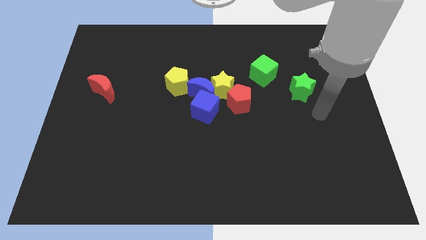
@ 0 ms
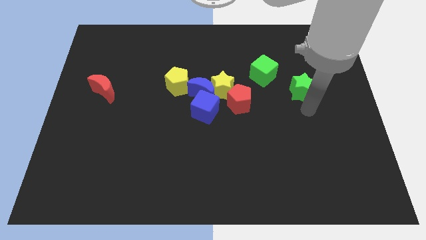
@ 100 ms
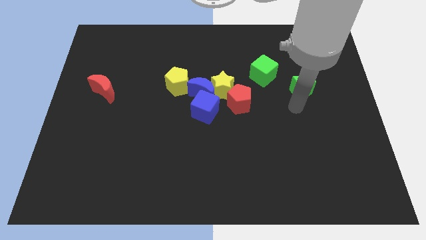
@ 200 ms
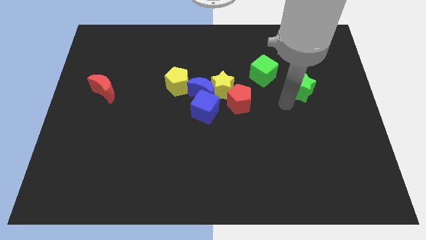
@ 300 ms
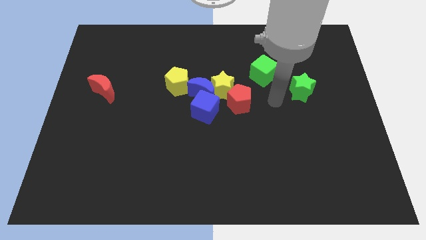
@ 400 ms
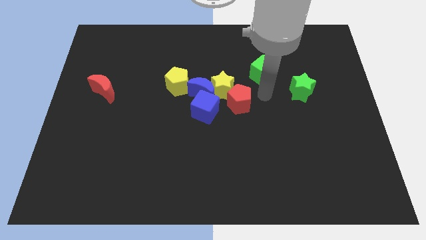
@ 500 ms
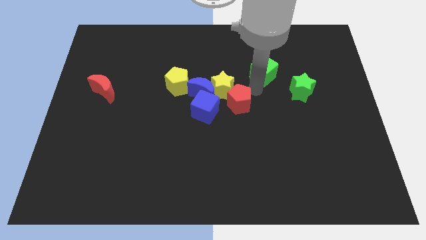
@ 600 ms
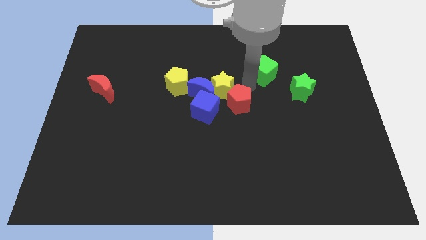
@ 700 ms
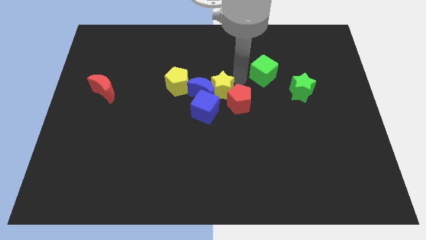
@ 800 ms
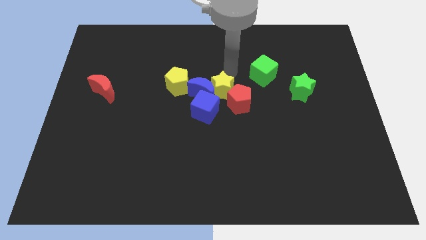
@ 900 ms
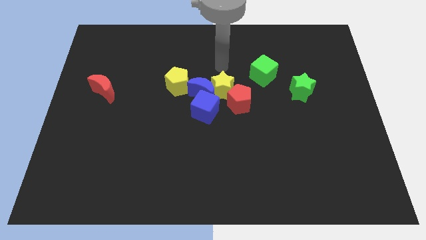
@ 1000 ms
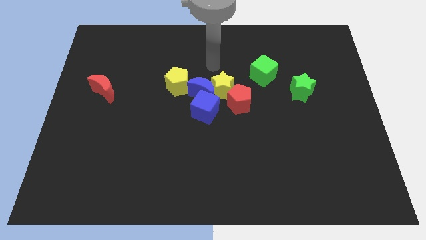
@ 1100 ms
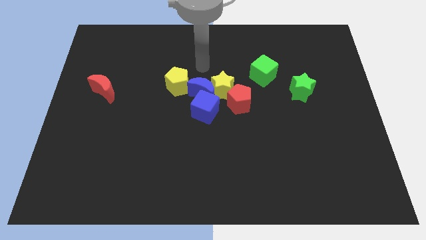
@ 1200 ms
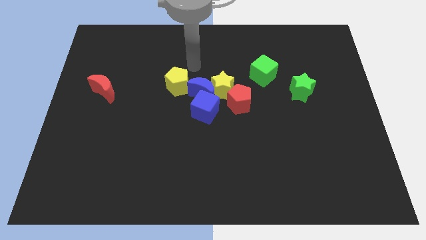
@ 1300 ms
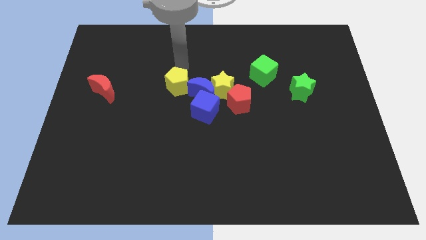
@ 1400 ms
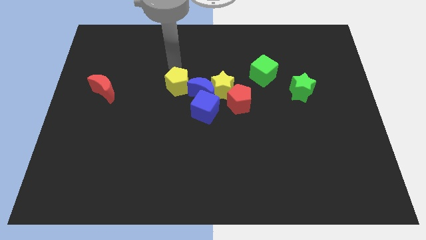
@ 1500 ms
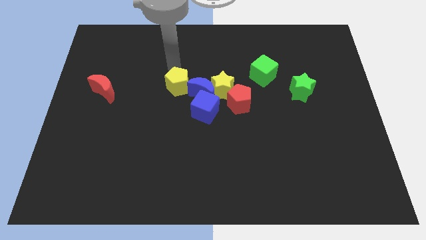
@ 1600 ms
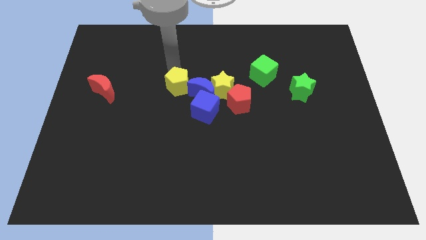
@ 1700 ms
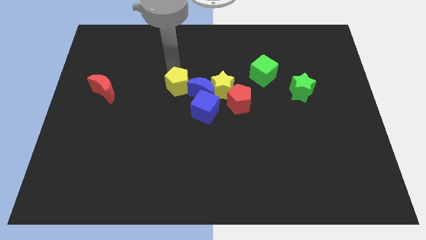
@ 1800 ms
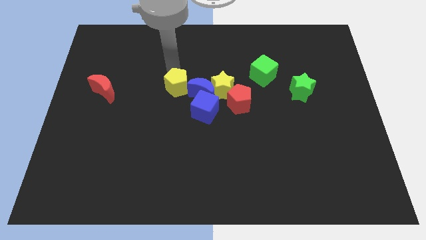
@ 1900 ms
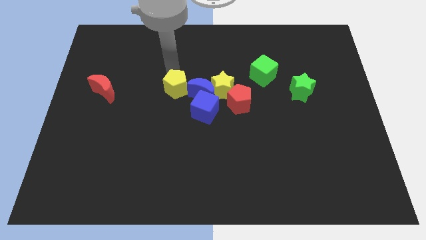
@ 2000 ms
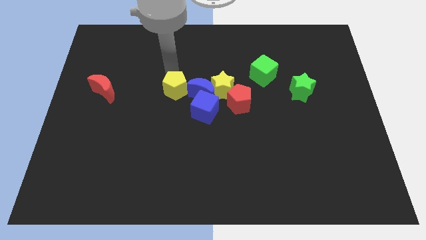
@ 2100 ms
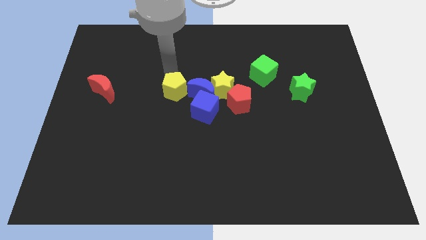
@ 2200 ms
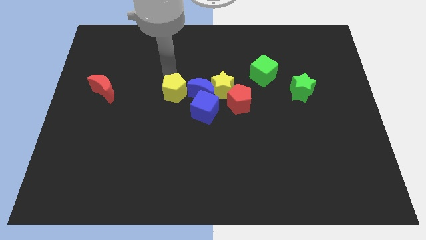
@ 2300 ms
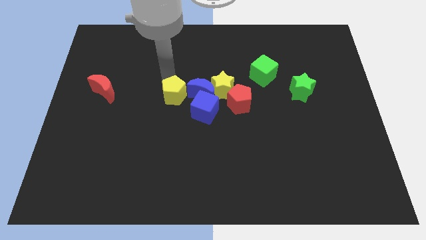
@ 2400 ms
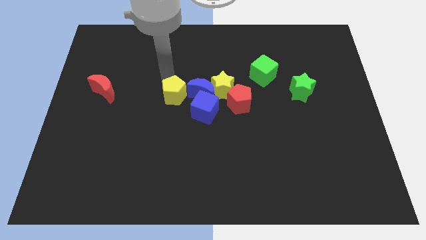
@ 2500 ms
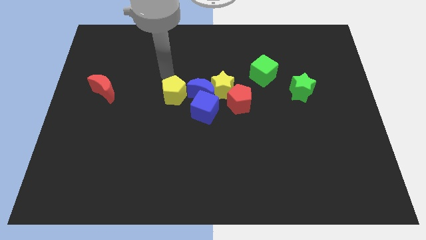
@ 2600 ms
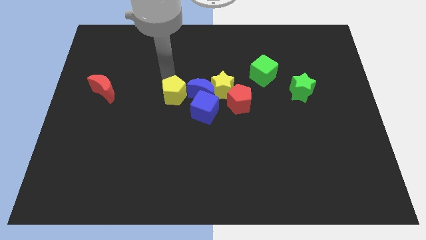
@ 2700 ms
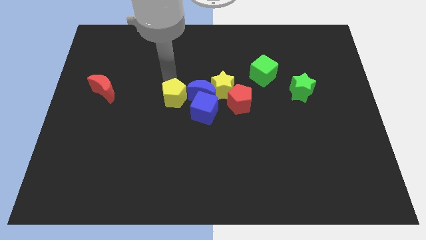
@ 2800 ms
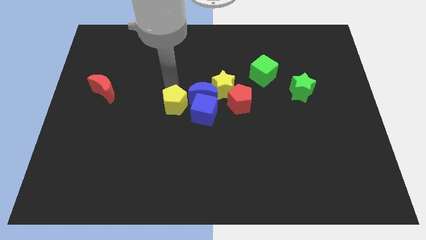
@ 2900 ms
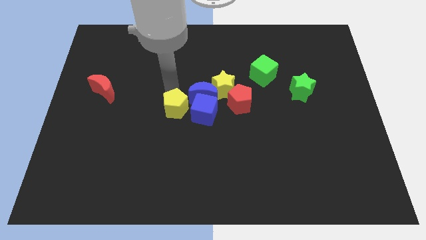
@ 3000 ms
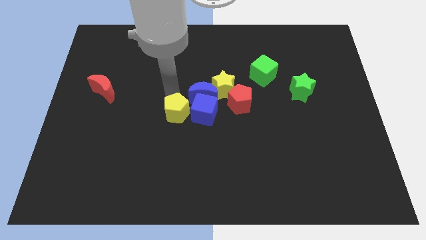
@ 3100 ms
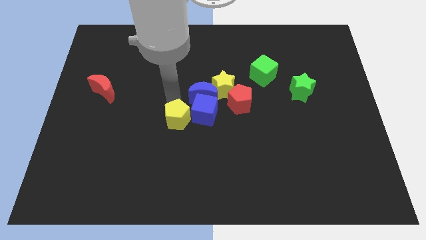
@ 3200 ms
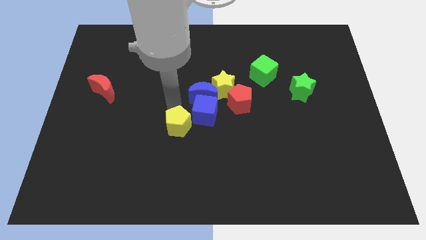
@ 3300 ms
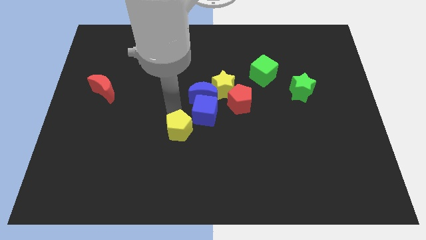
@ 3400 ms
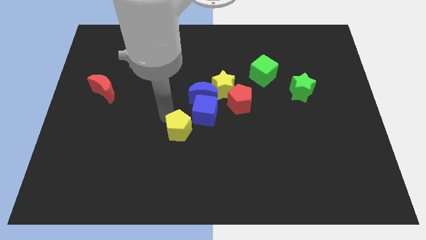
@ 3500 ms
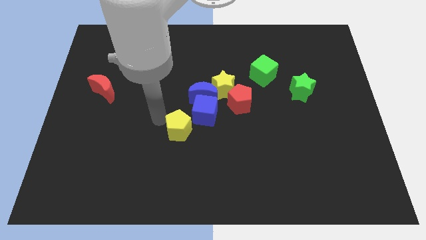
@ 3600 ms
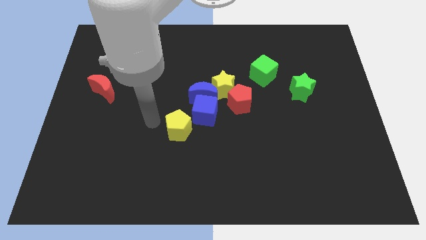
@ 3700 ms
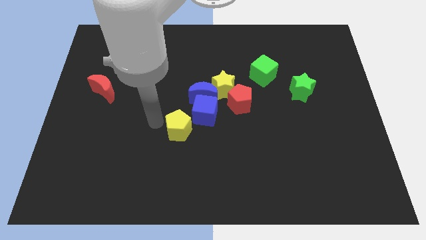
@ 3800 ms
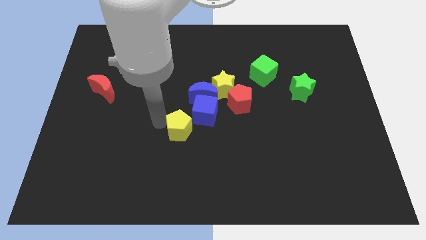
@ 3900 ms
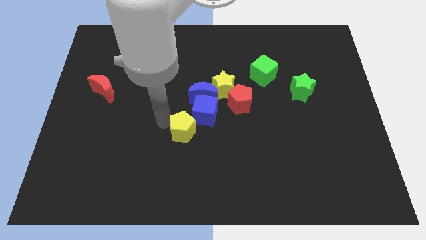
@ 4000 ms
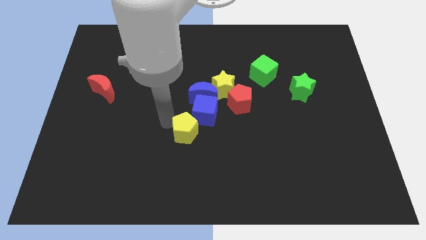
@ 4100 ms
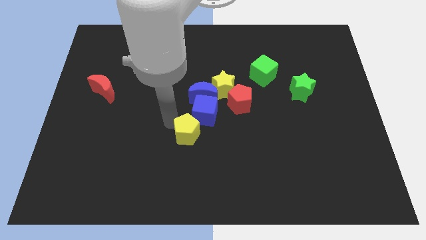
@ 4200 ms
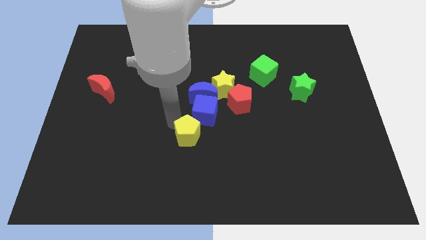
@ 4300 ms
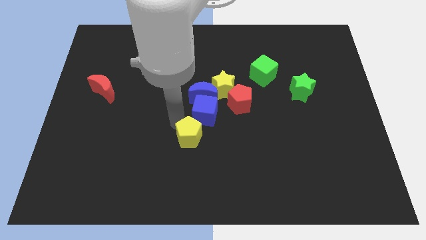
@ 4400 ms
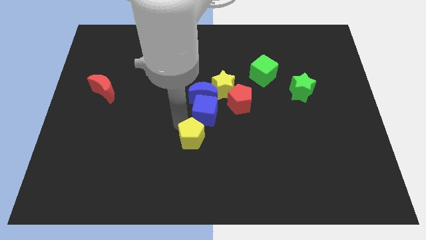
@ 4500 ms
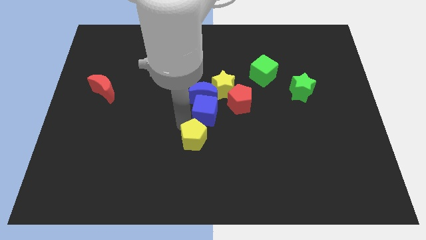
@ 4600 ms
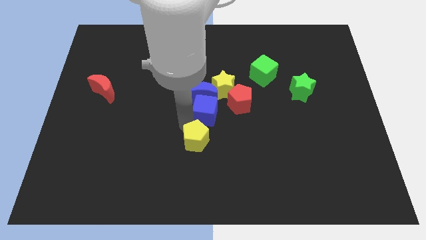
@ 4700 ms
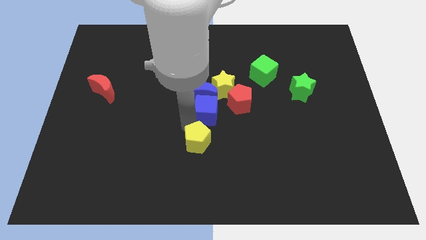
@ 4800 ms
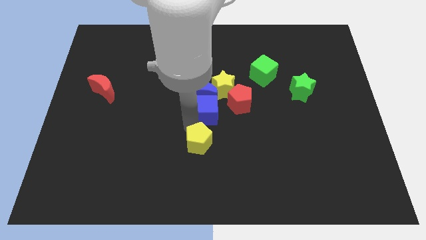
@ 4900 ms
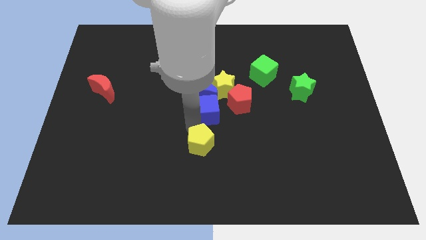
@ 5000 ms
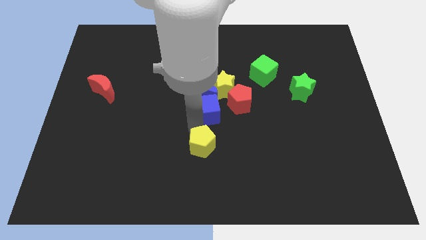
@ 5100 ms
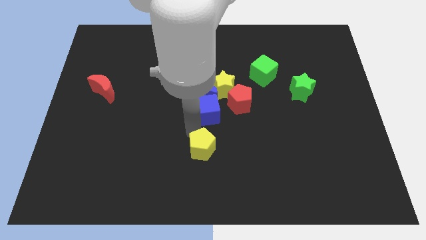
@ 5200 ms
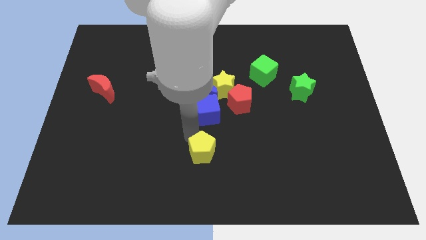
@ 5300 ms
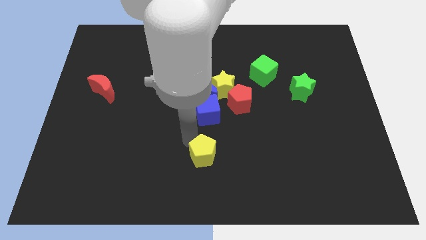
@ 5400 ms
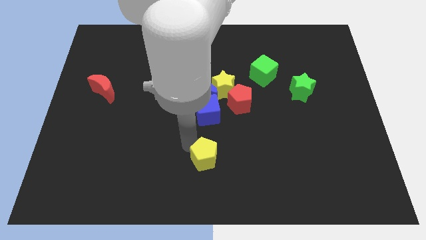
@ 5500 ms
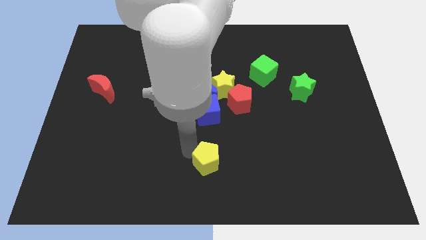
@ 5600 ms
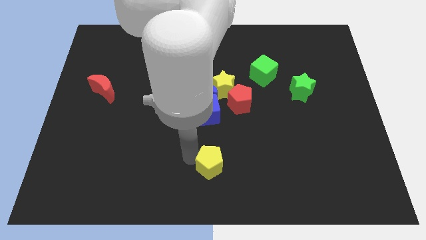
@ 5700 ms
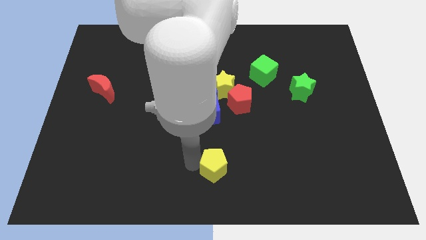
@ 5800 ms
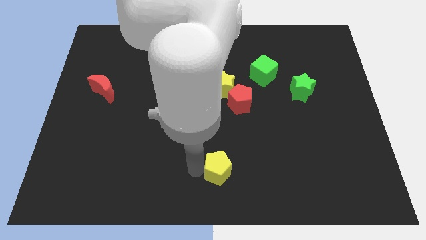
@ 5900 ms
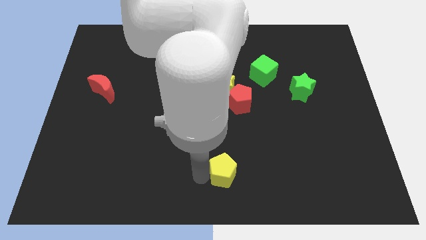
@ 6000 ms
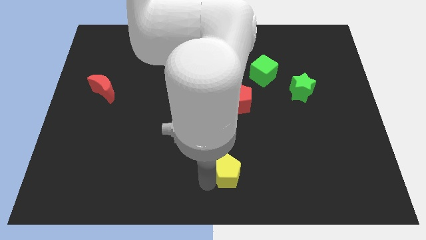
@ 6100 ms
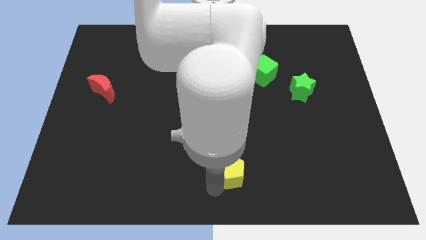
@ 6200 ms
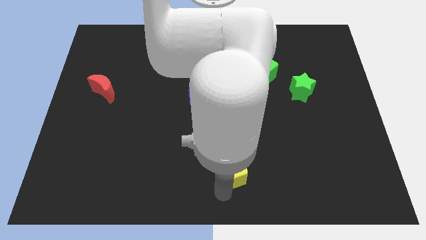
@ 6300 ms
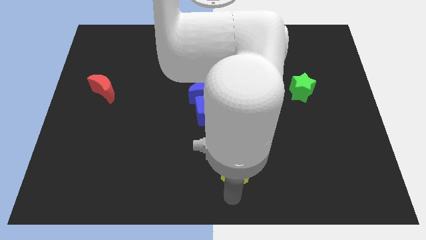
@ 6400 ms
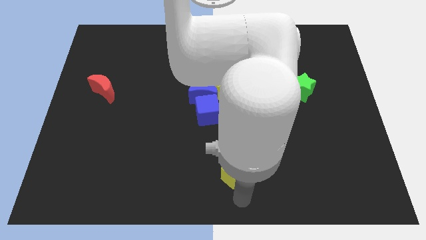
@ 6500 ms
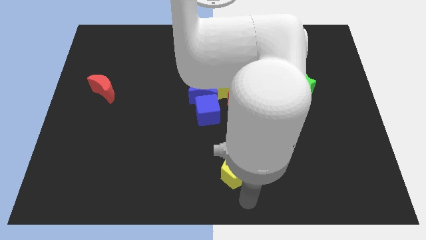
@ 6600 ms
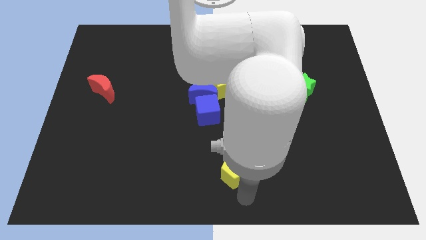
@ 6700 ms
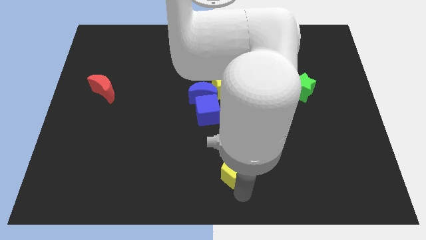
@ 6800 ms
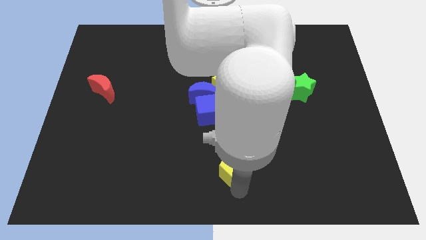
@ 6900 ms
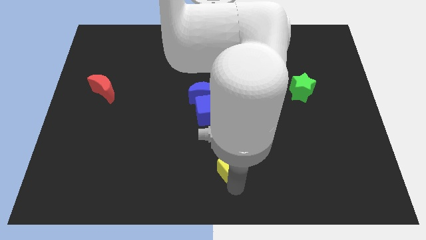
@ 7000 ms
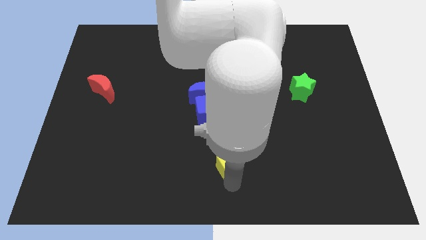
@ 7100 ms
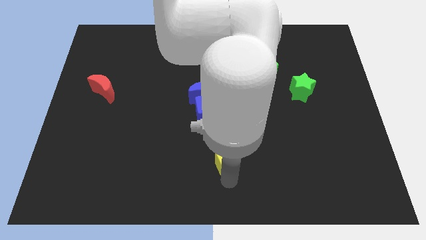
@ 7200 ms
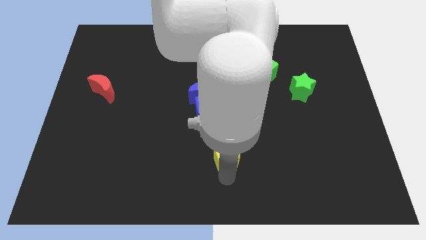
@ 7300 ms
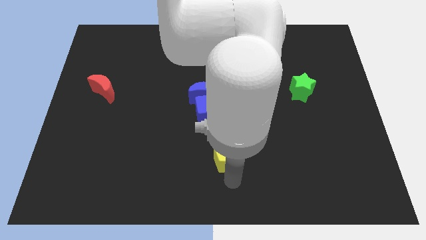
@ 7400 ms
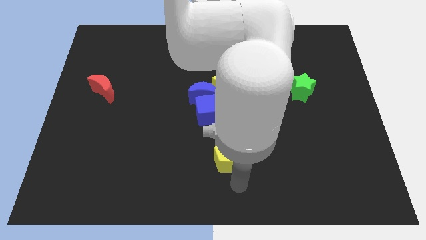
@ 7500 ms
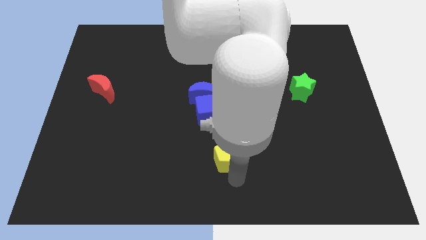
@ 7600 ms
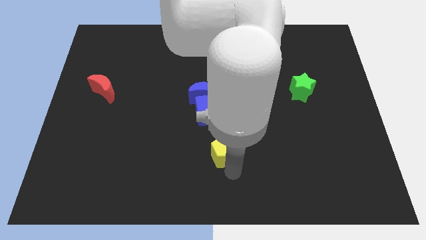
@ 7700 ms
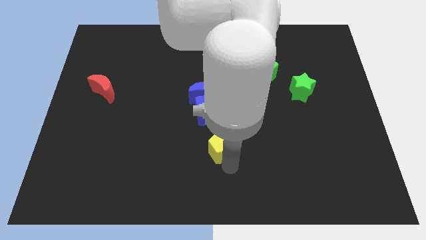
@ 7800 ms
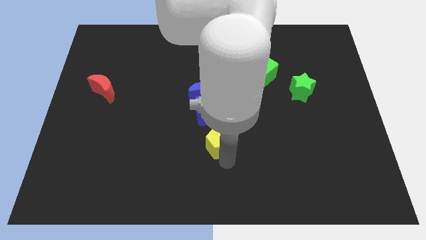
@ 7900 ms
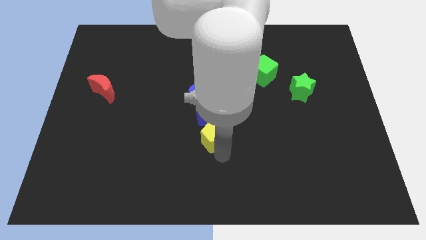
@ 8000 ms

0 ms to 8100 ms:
put the yellow pentagon diagonally down and to the left of the red pentagon
